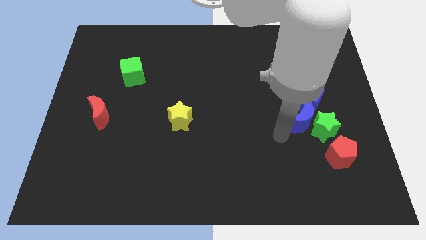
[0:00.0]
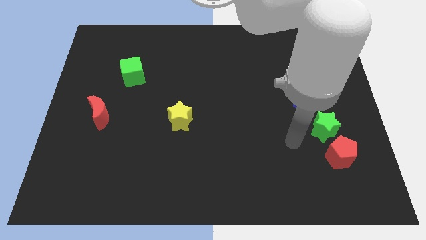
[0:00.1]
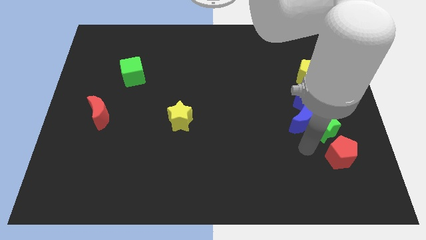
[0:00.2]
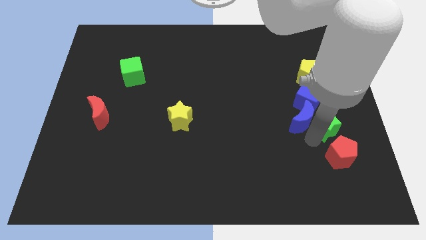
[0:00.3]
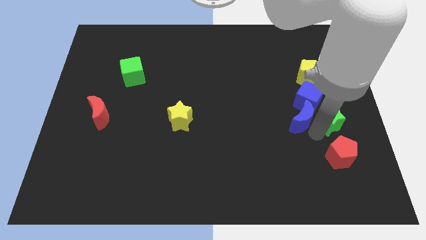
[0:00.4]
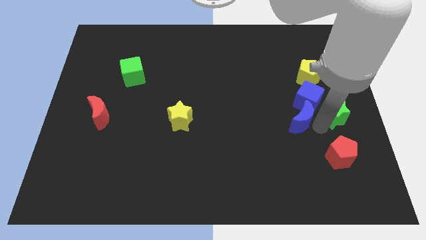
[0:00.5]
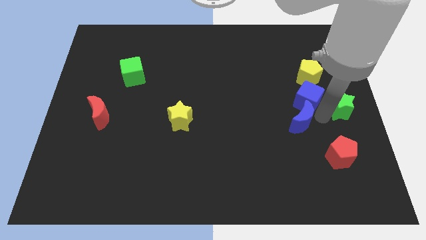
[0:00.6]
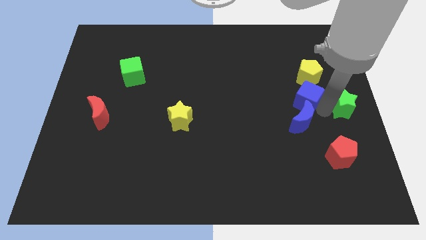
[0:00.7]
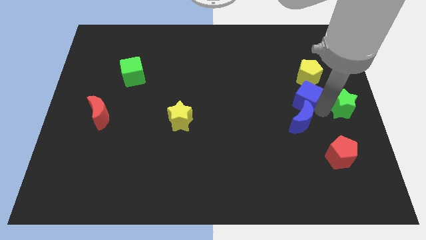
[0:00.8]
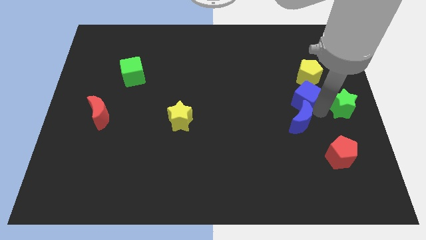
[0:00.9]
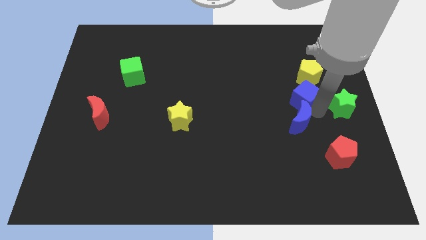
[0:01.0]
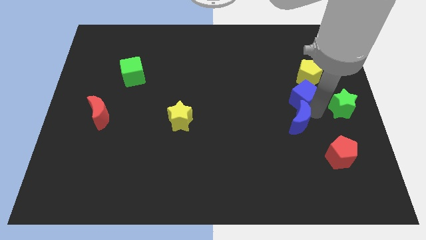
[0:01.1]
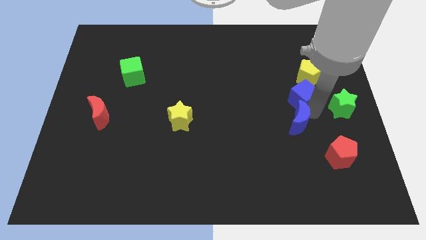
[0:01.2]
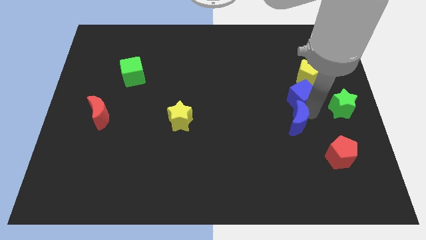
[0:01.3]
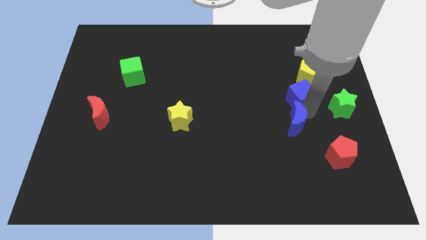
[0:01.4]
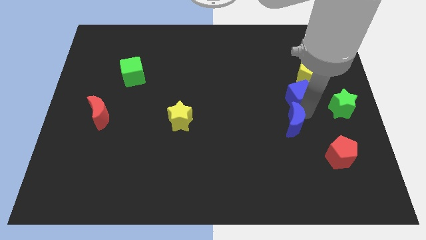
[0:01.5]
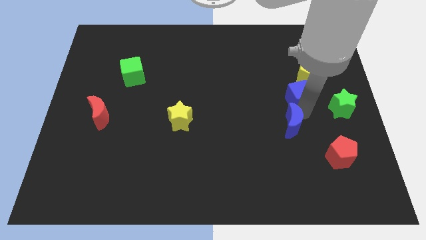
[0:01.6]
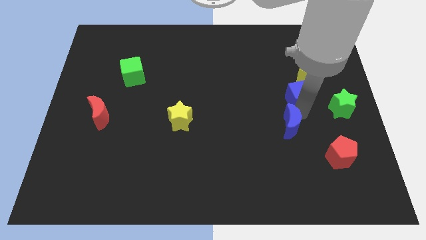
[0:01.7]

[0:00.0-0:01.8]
pull the blue moon apart from the green star and blue cube

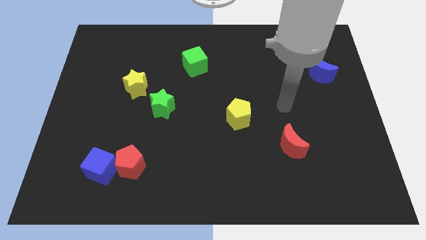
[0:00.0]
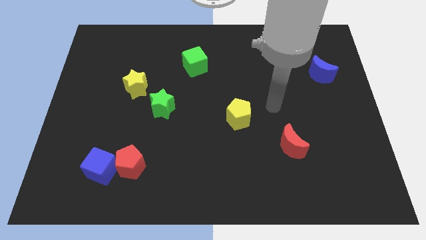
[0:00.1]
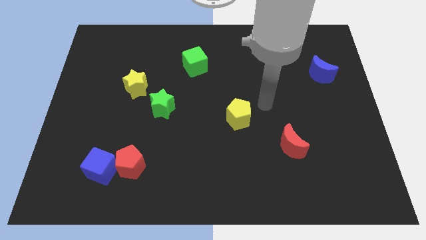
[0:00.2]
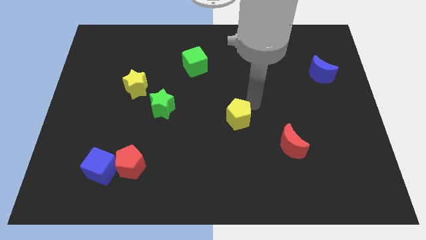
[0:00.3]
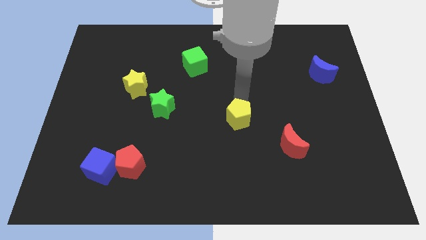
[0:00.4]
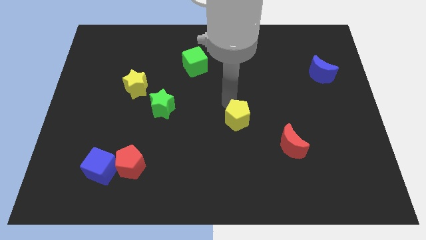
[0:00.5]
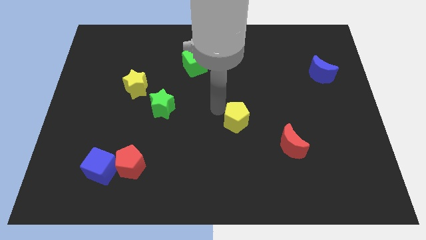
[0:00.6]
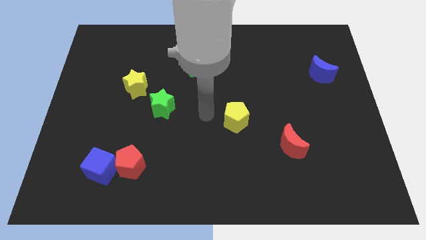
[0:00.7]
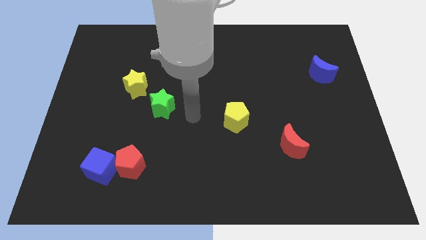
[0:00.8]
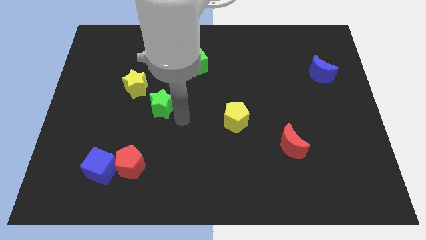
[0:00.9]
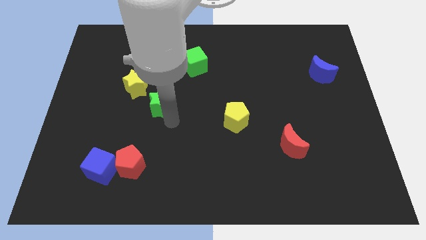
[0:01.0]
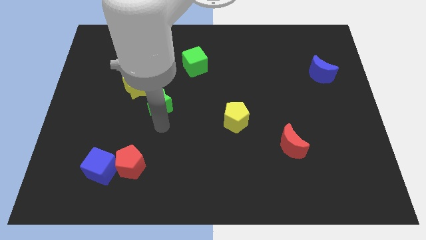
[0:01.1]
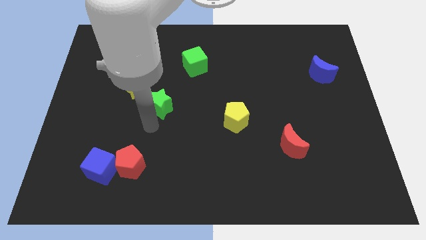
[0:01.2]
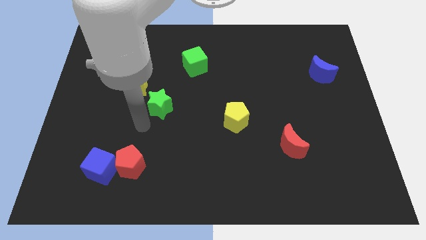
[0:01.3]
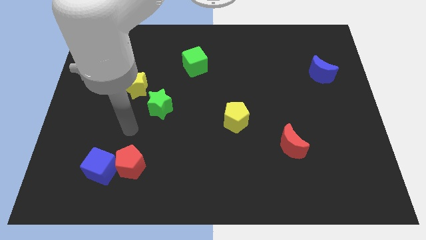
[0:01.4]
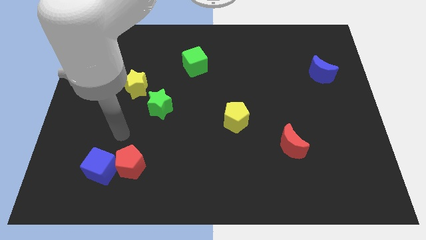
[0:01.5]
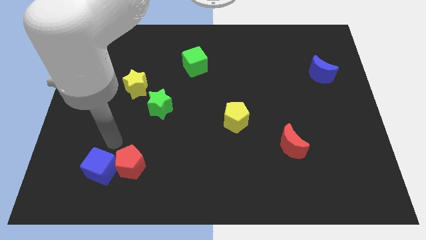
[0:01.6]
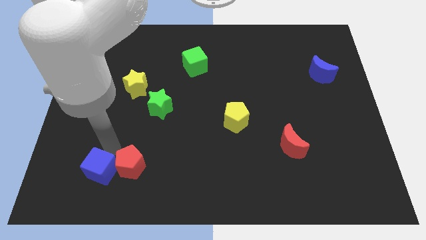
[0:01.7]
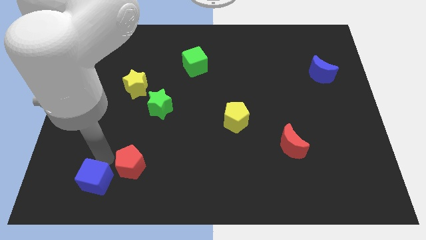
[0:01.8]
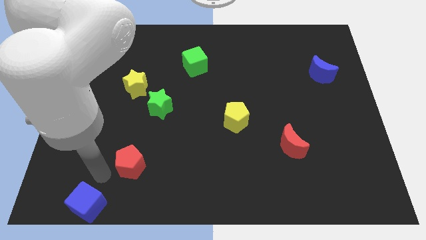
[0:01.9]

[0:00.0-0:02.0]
separate the red pentagon from the blue cube

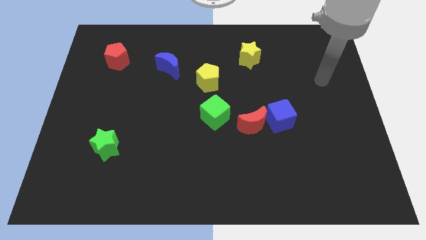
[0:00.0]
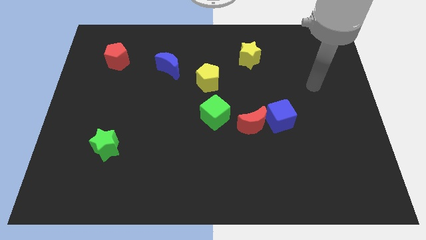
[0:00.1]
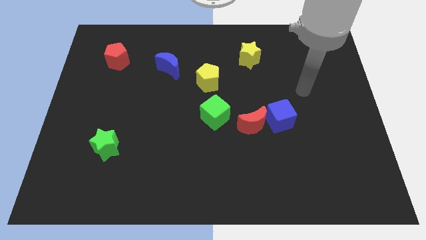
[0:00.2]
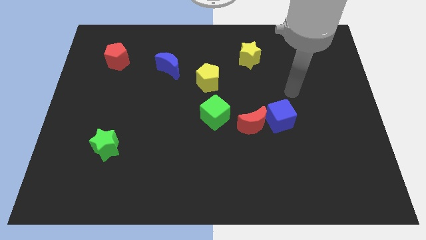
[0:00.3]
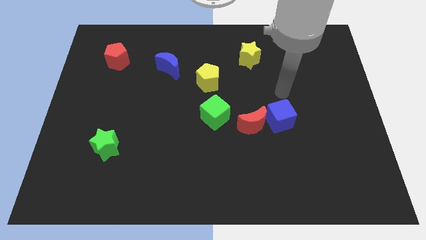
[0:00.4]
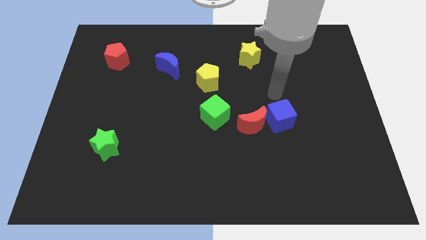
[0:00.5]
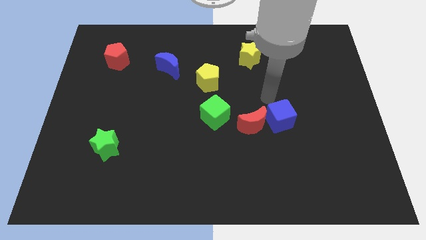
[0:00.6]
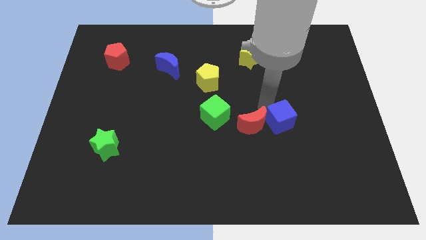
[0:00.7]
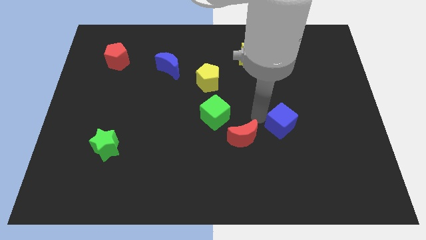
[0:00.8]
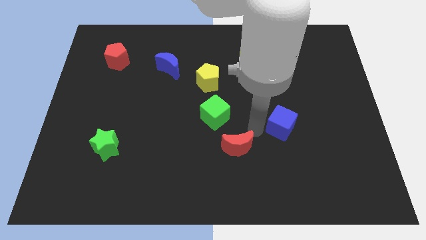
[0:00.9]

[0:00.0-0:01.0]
pull the blue cube apart from the red moon

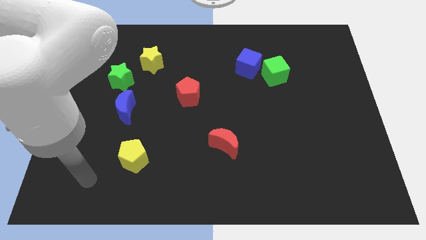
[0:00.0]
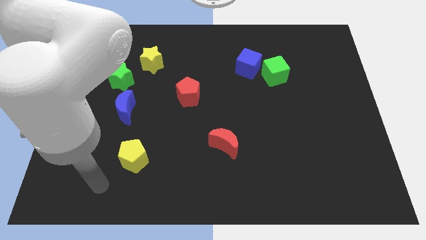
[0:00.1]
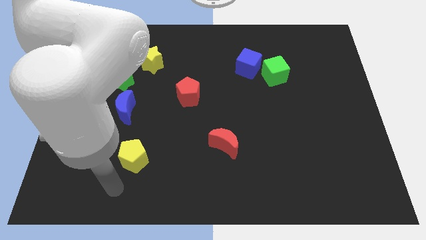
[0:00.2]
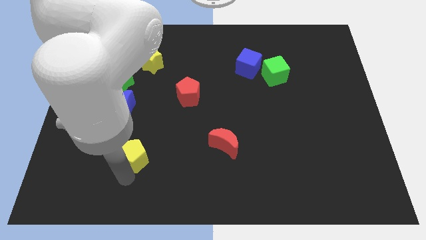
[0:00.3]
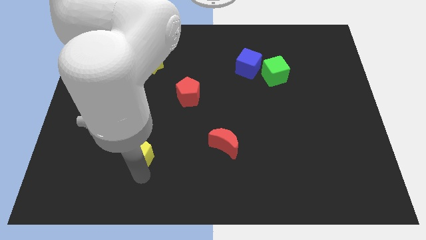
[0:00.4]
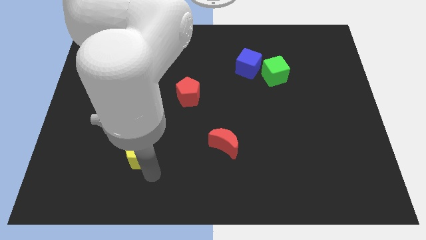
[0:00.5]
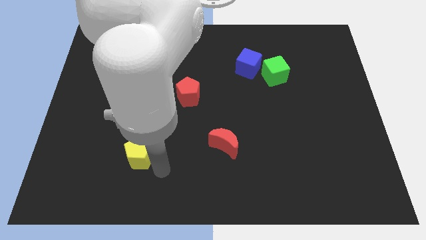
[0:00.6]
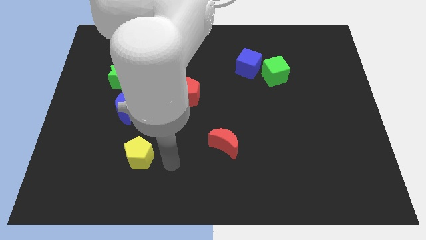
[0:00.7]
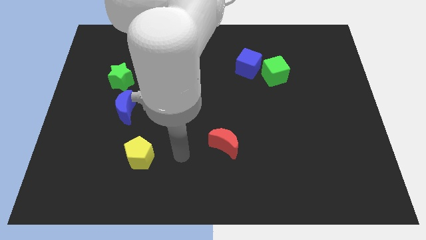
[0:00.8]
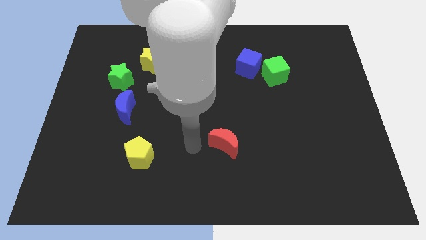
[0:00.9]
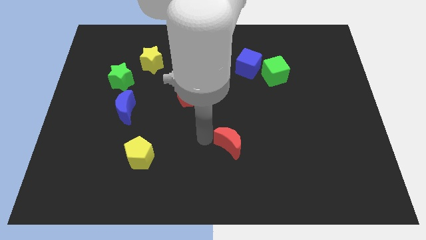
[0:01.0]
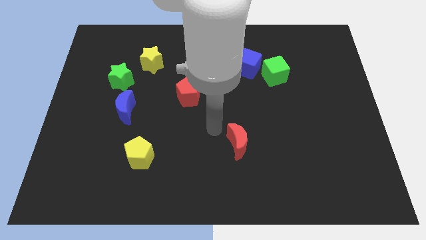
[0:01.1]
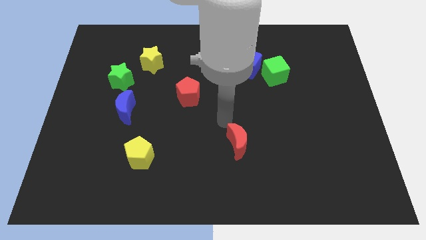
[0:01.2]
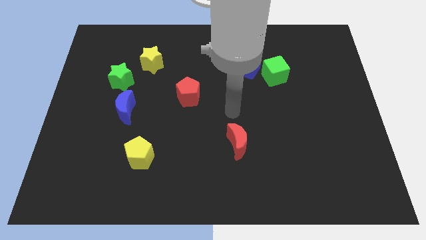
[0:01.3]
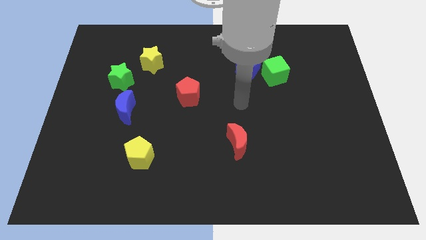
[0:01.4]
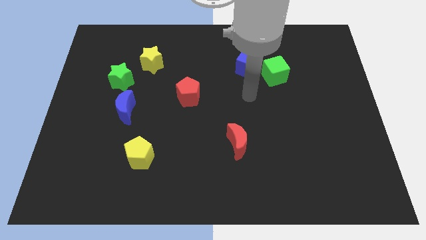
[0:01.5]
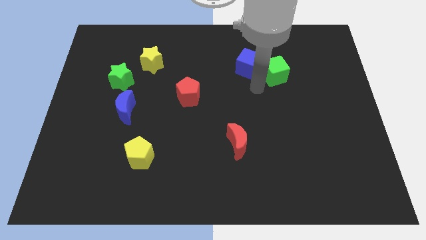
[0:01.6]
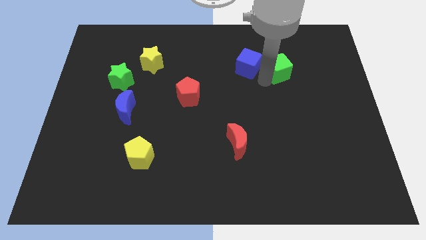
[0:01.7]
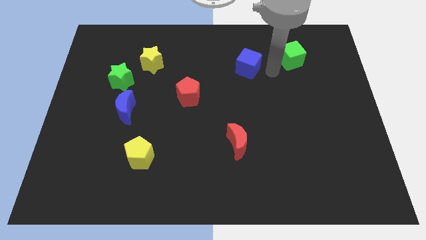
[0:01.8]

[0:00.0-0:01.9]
pull the blue cube apart from the green cube

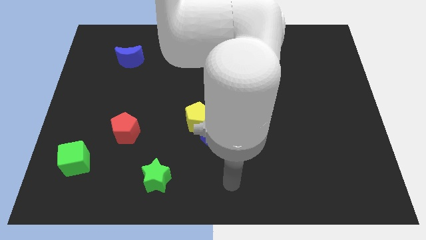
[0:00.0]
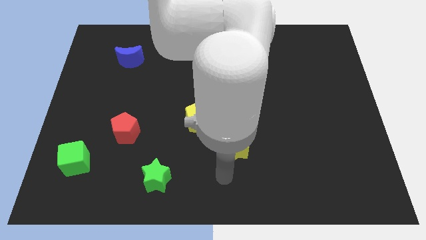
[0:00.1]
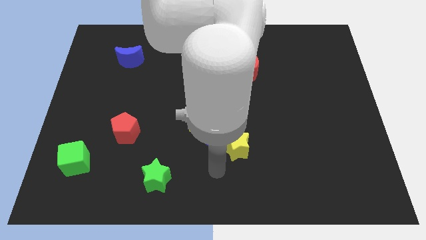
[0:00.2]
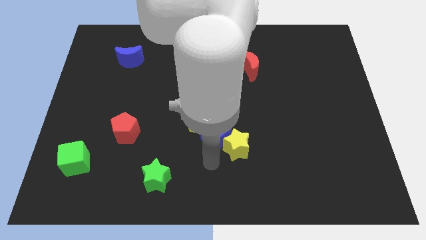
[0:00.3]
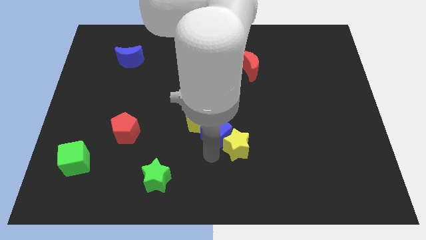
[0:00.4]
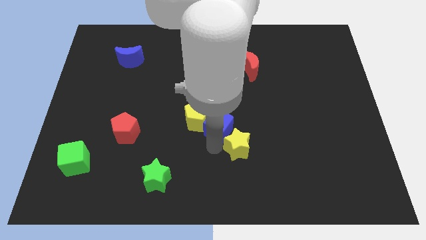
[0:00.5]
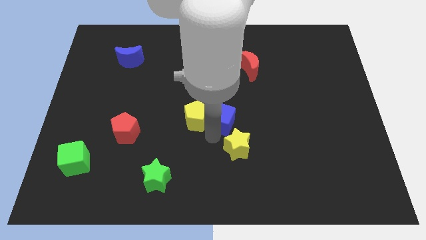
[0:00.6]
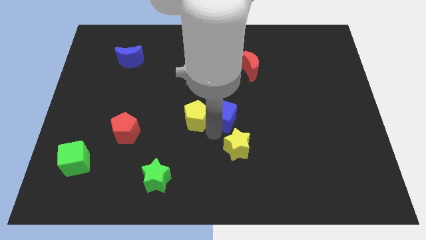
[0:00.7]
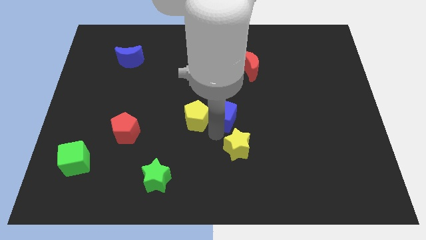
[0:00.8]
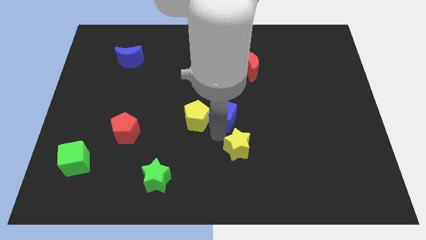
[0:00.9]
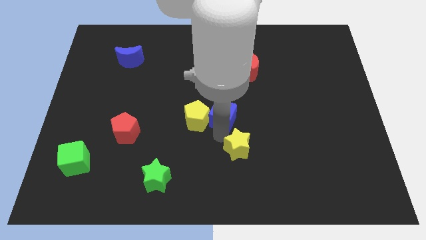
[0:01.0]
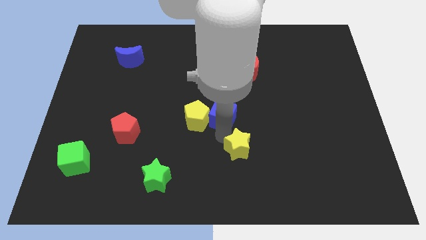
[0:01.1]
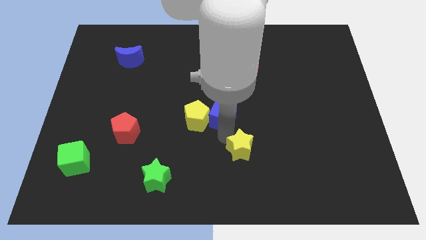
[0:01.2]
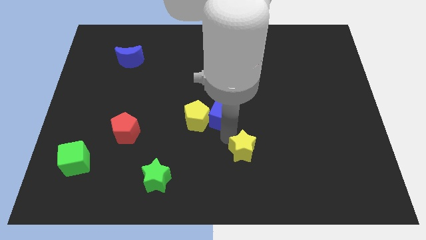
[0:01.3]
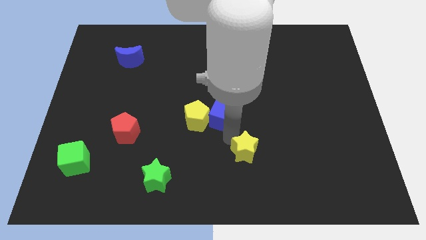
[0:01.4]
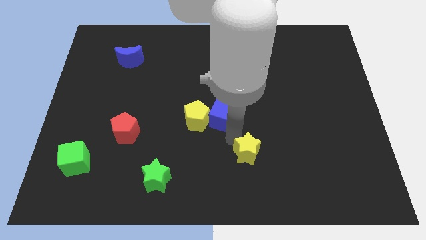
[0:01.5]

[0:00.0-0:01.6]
pull the yellow star apart from the blue cube

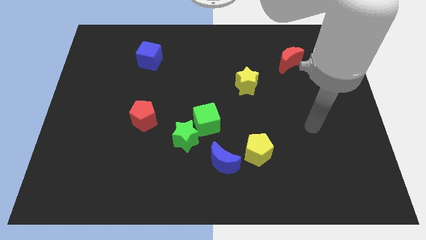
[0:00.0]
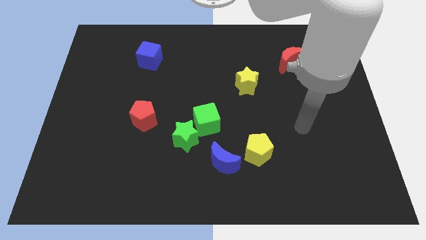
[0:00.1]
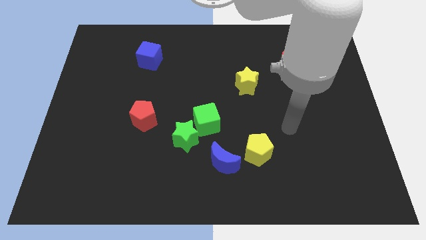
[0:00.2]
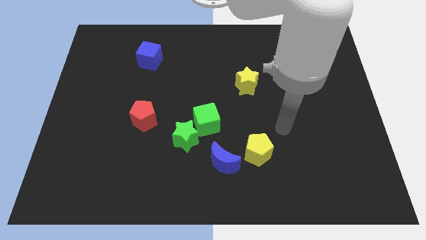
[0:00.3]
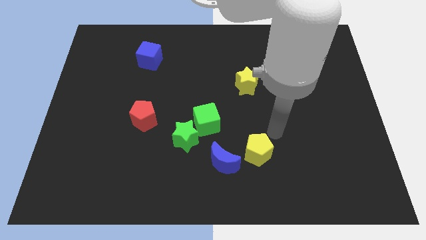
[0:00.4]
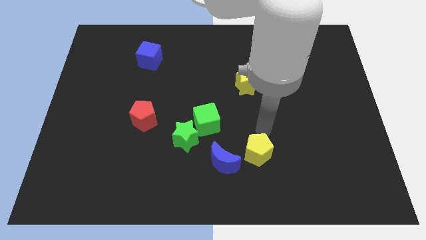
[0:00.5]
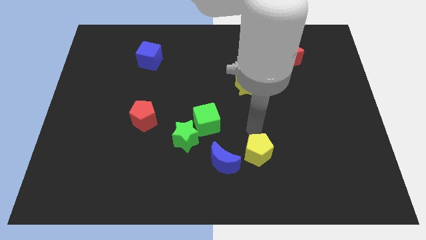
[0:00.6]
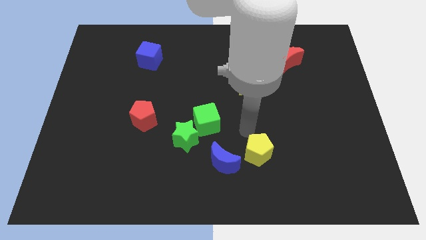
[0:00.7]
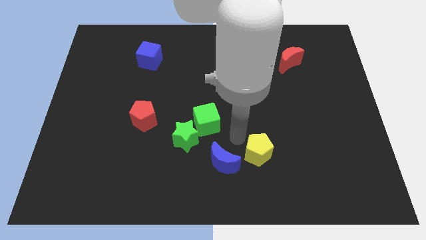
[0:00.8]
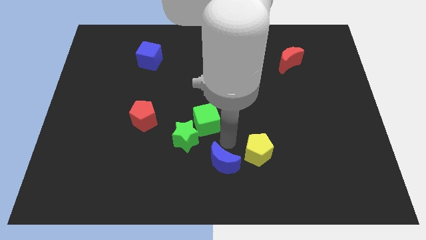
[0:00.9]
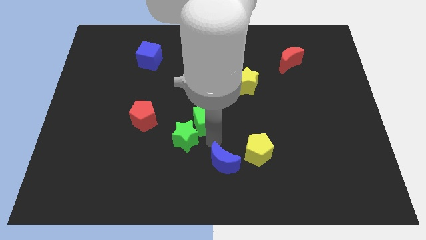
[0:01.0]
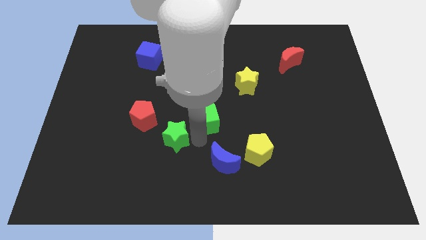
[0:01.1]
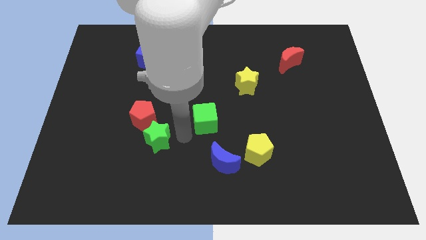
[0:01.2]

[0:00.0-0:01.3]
pull the green cube apart from the green star
